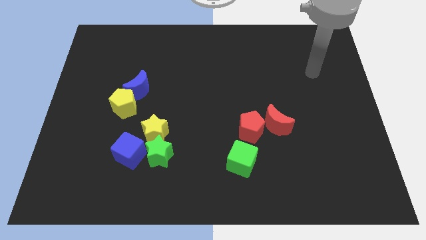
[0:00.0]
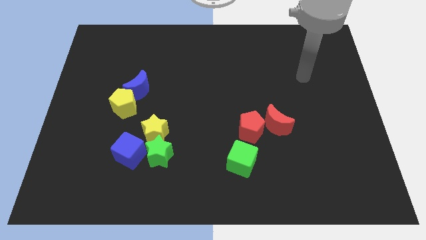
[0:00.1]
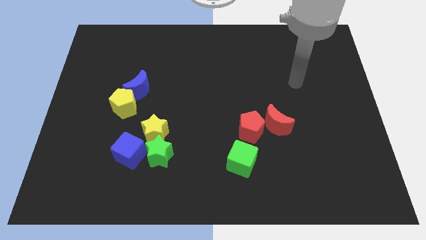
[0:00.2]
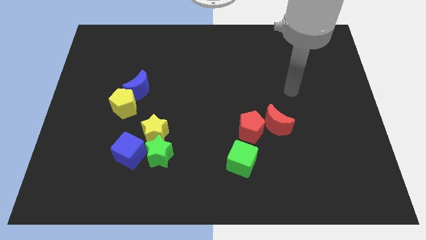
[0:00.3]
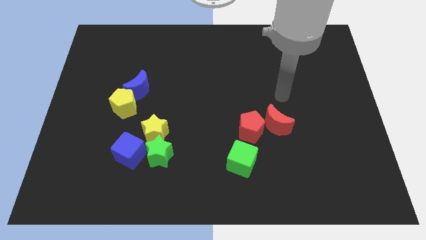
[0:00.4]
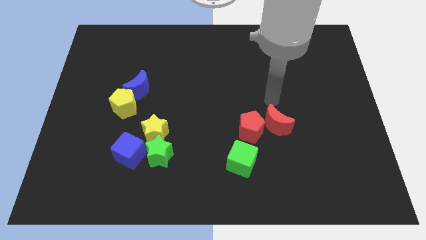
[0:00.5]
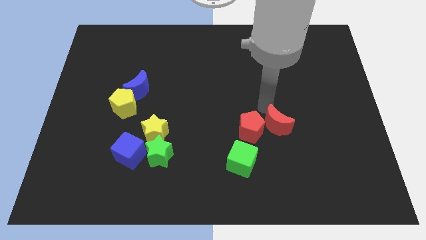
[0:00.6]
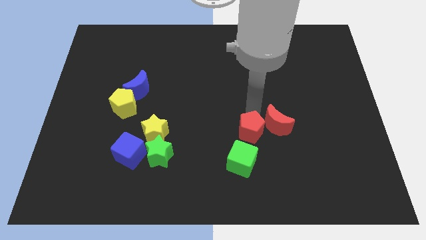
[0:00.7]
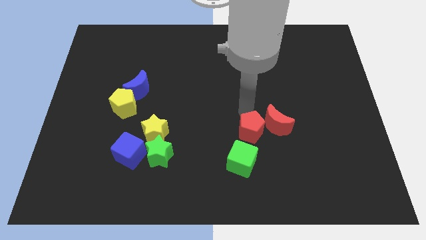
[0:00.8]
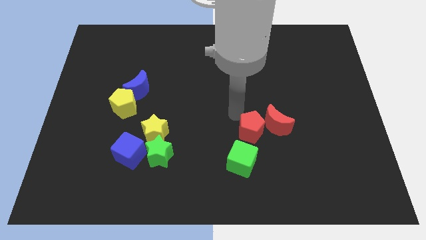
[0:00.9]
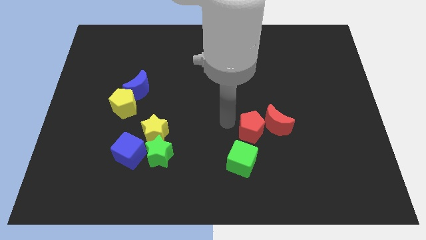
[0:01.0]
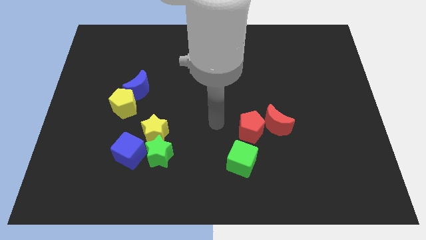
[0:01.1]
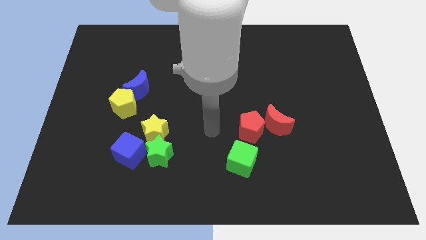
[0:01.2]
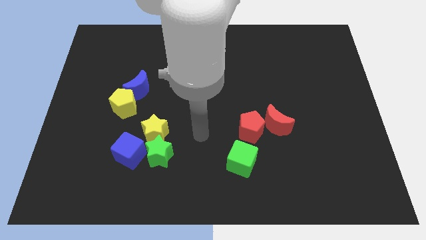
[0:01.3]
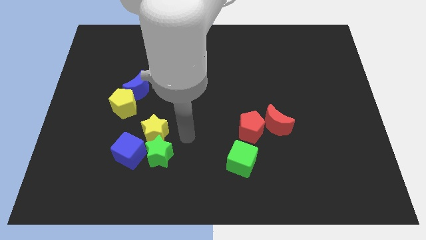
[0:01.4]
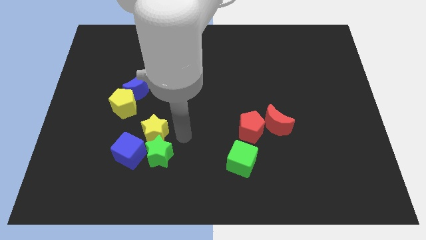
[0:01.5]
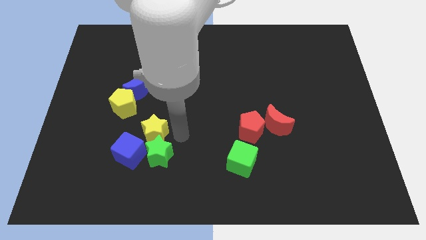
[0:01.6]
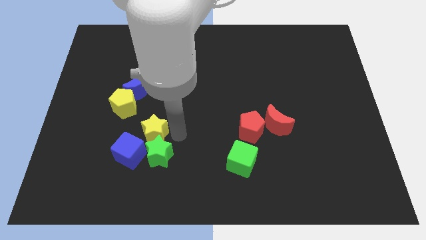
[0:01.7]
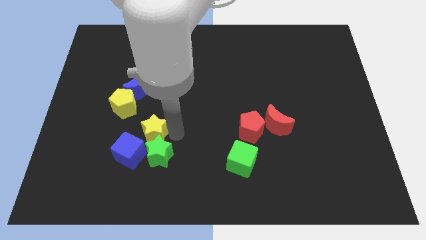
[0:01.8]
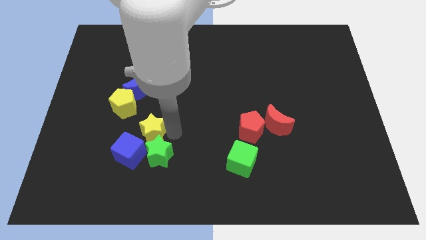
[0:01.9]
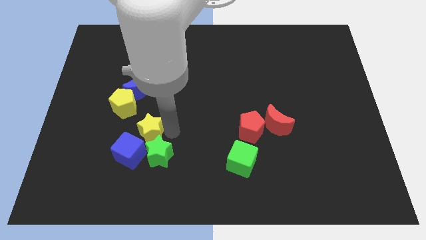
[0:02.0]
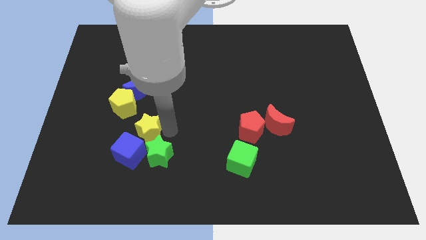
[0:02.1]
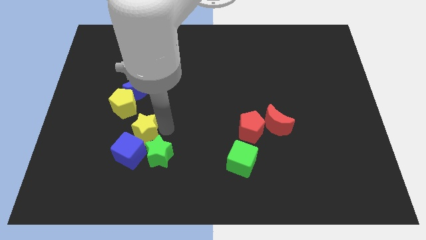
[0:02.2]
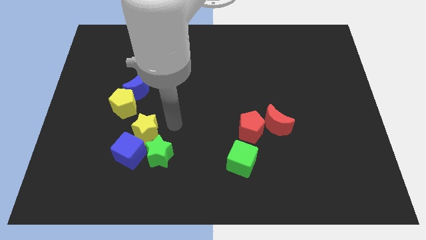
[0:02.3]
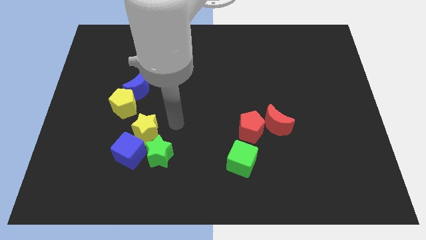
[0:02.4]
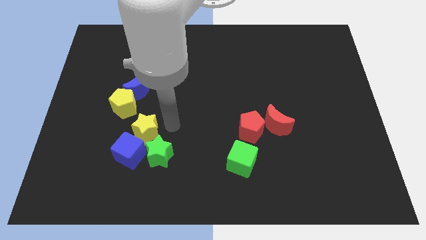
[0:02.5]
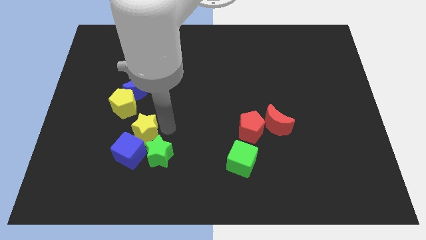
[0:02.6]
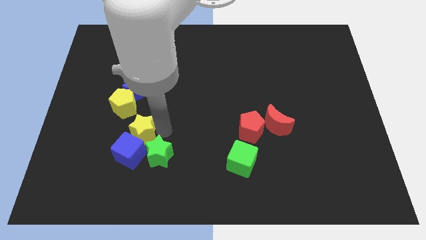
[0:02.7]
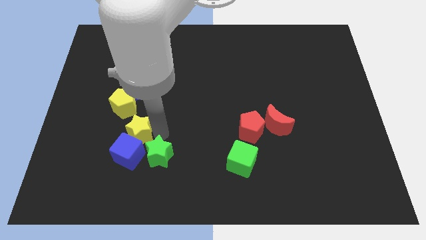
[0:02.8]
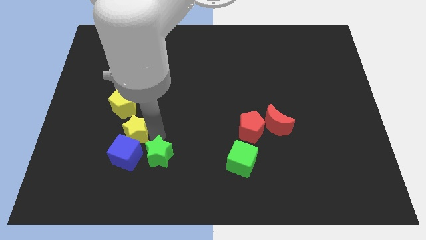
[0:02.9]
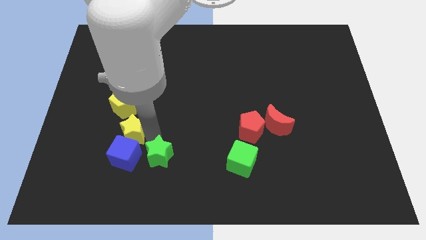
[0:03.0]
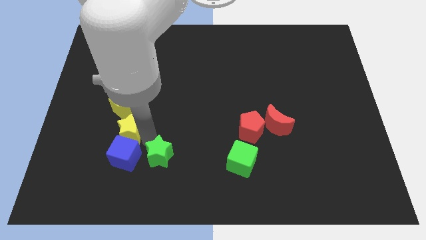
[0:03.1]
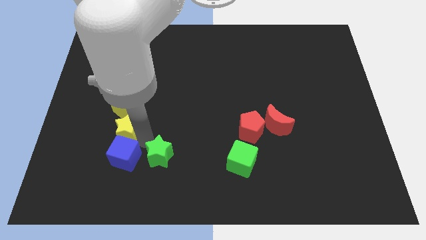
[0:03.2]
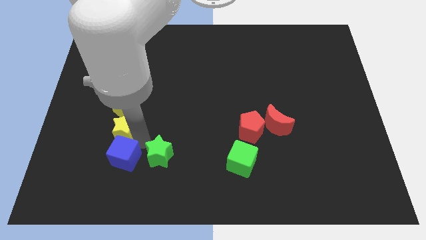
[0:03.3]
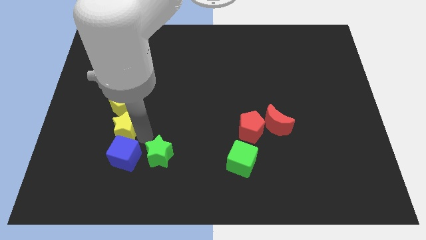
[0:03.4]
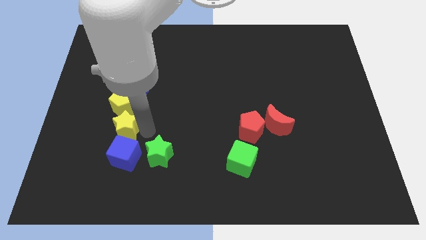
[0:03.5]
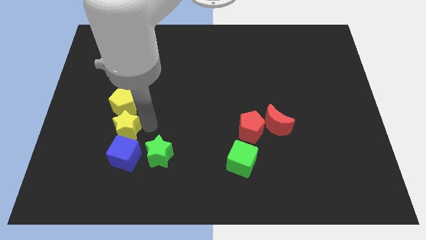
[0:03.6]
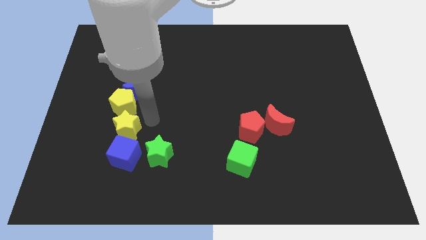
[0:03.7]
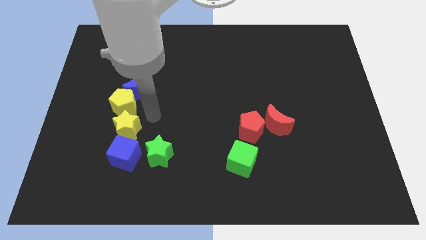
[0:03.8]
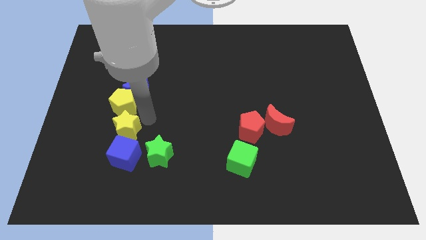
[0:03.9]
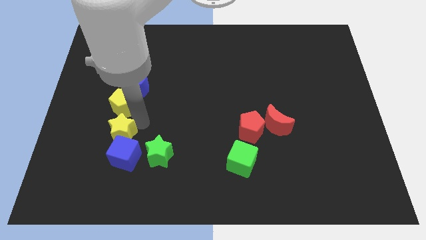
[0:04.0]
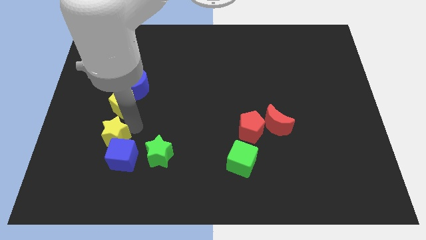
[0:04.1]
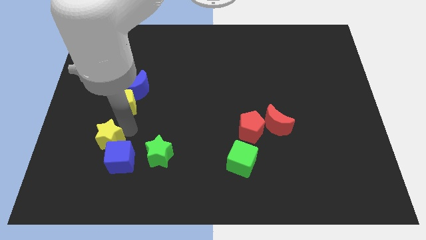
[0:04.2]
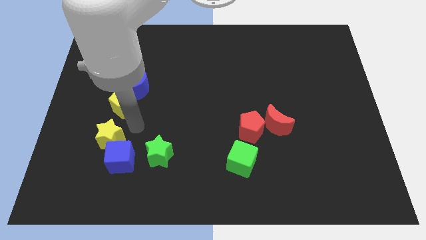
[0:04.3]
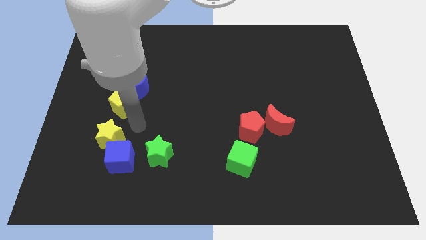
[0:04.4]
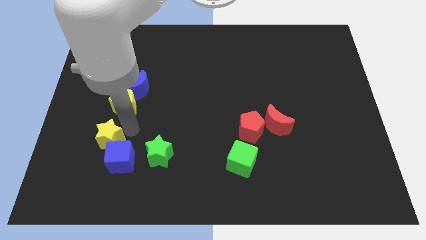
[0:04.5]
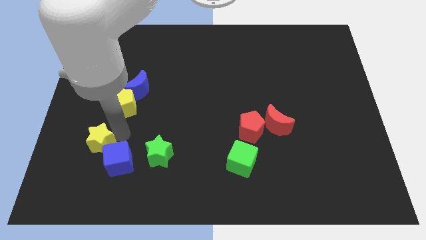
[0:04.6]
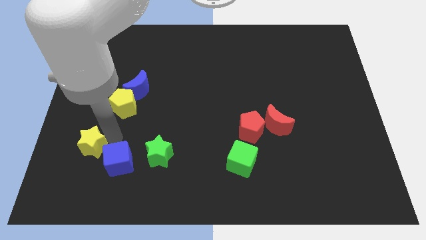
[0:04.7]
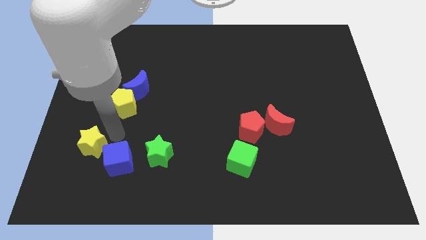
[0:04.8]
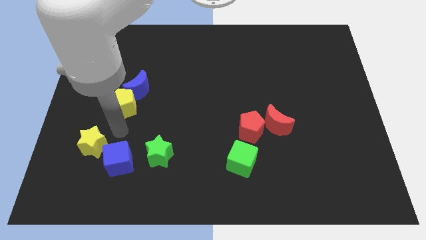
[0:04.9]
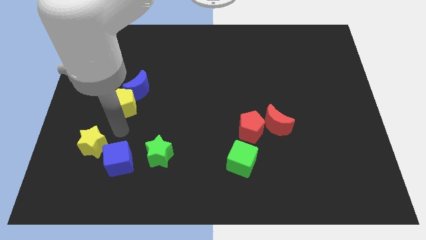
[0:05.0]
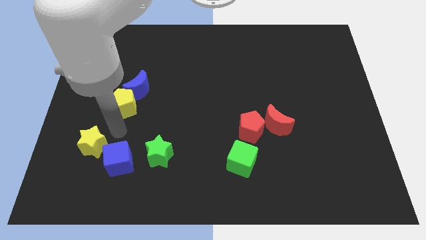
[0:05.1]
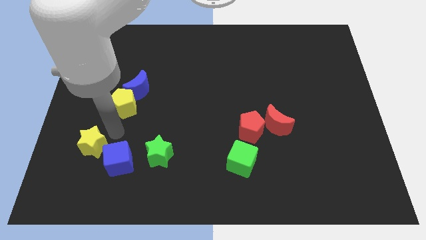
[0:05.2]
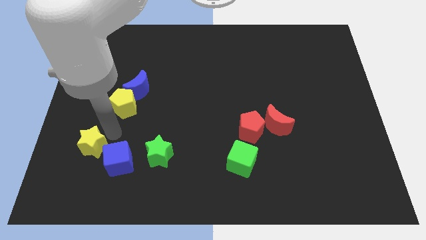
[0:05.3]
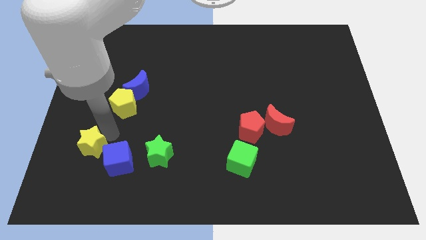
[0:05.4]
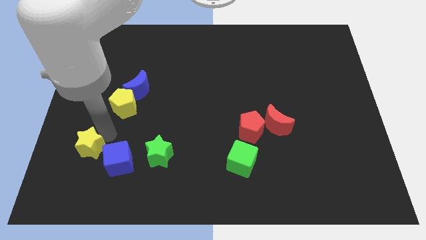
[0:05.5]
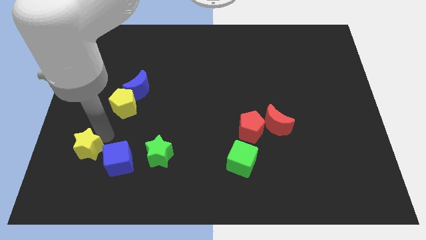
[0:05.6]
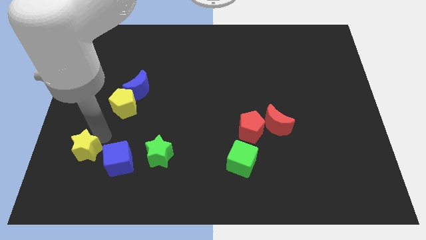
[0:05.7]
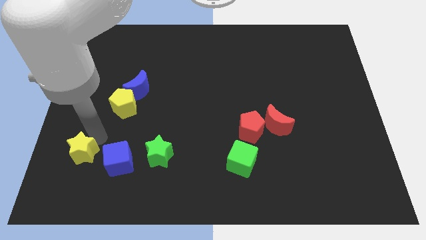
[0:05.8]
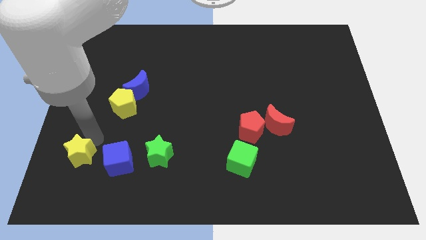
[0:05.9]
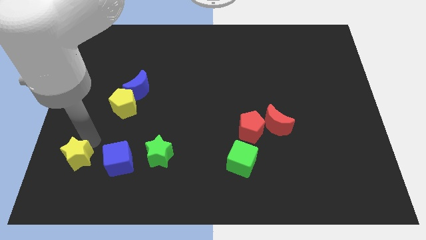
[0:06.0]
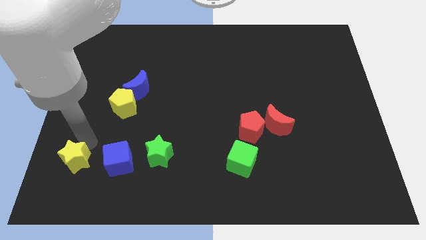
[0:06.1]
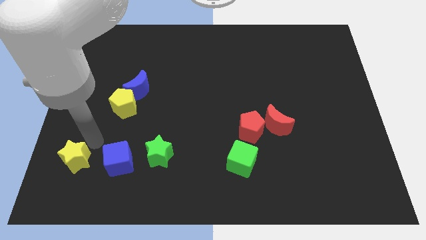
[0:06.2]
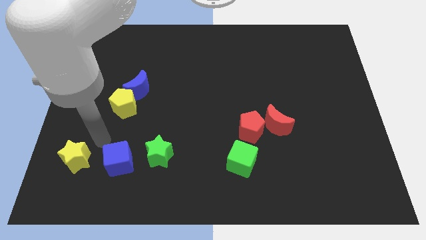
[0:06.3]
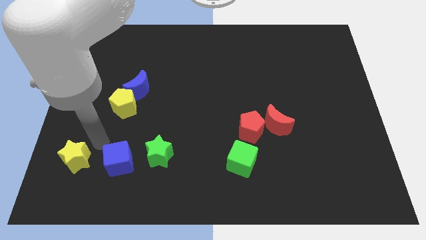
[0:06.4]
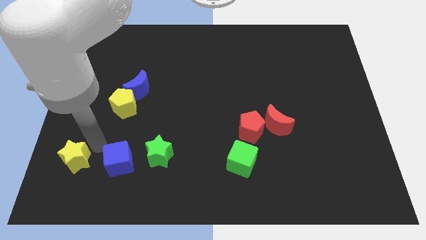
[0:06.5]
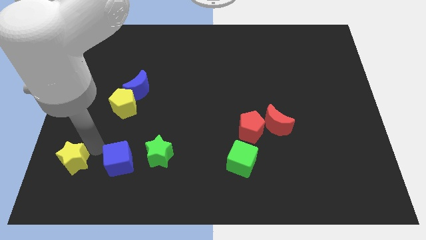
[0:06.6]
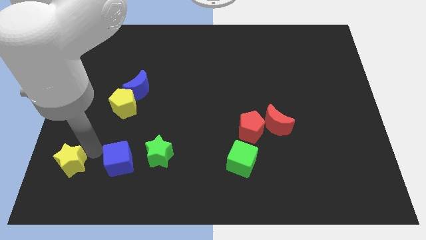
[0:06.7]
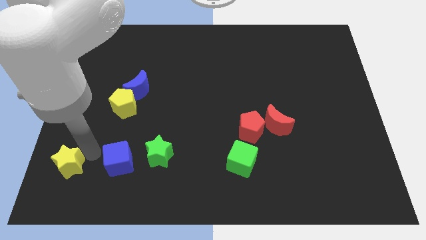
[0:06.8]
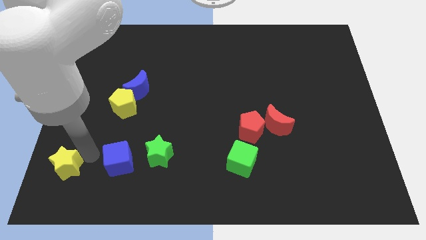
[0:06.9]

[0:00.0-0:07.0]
push the yellow star to the bottom left

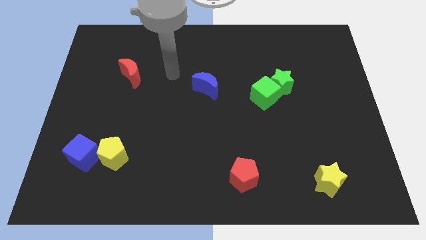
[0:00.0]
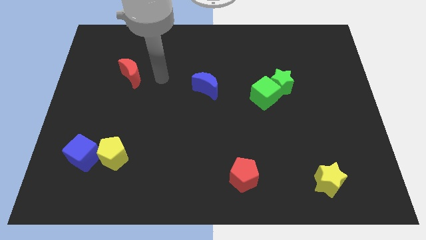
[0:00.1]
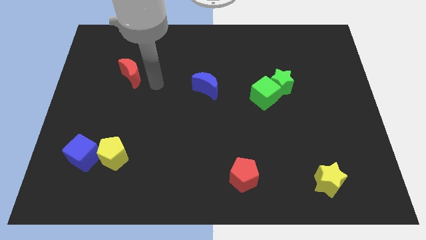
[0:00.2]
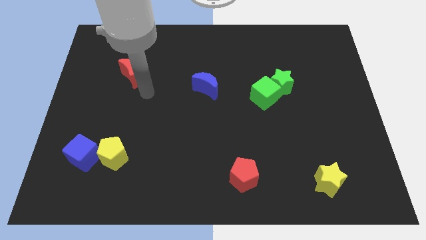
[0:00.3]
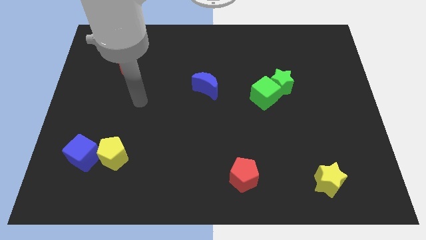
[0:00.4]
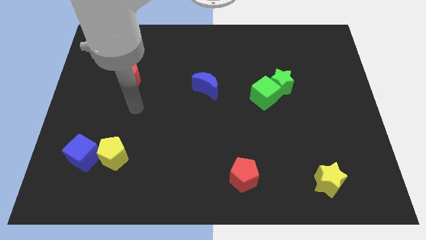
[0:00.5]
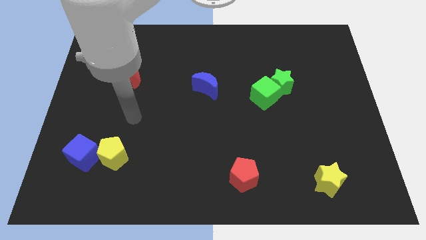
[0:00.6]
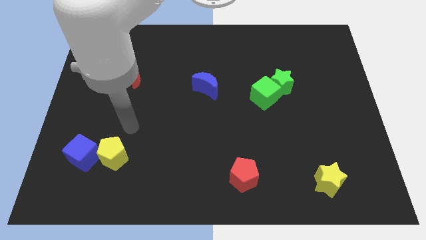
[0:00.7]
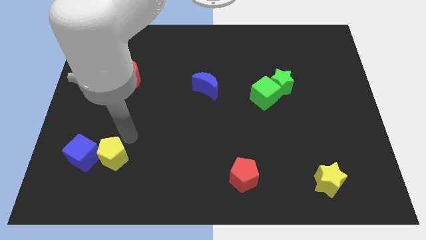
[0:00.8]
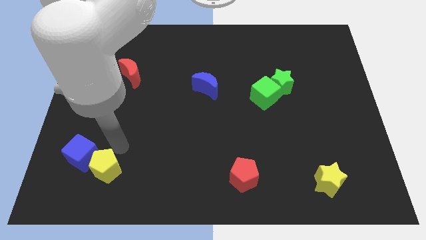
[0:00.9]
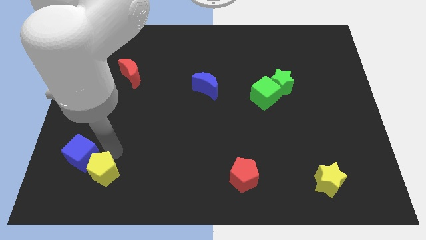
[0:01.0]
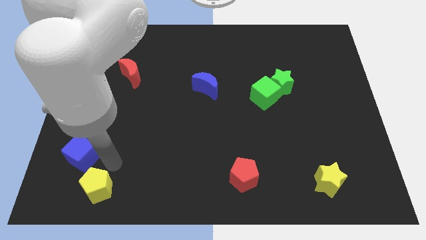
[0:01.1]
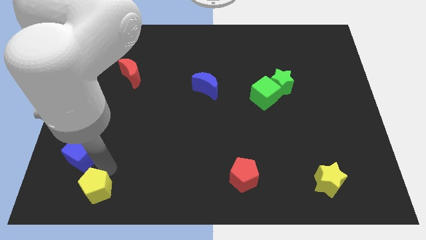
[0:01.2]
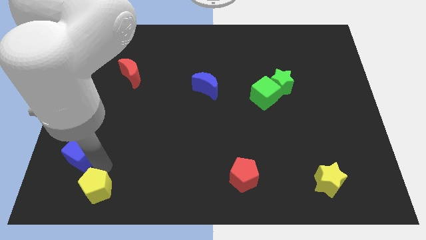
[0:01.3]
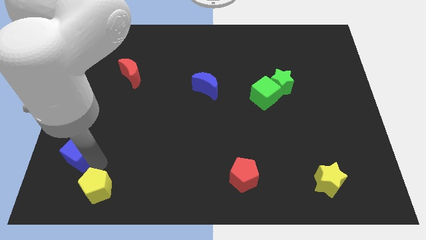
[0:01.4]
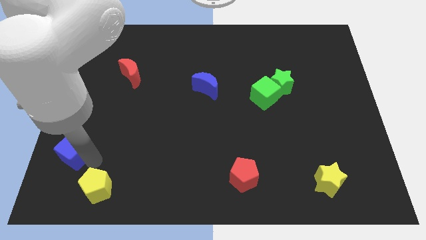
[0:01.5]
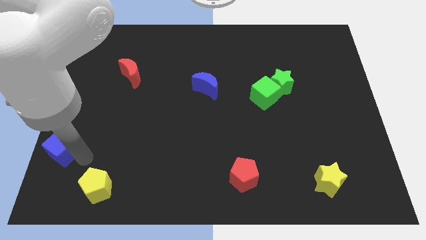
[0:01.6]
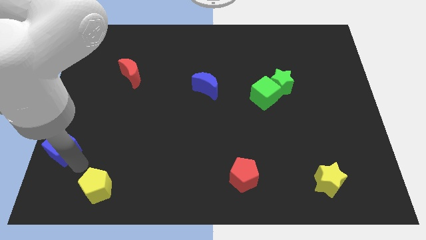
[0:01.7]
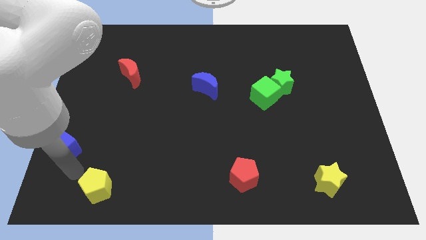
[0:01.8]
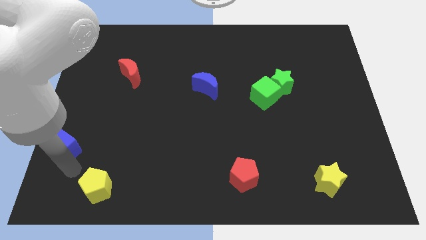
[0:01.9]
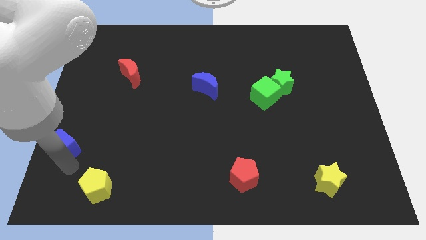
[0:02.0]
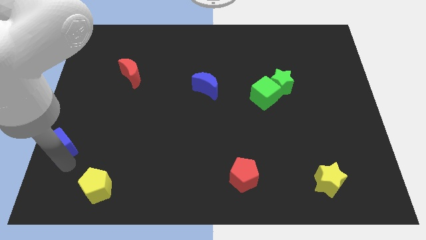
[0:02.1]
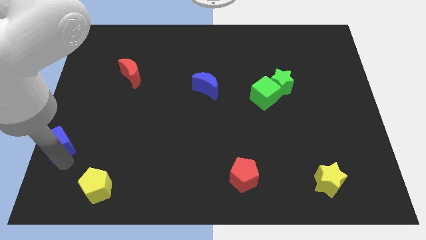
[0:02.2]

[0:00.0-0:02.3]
push the blue cube to the center left
